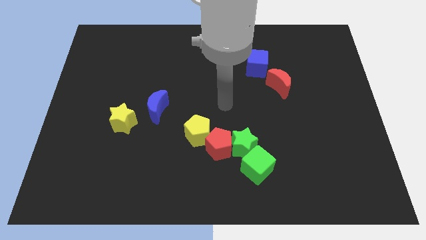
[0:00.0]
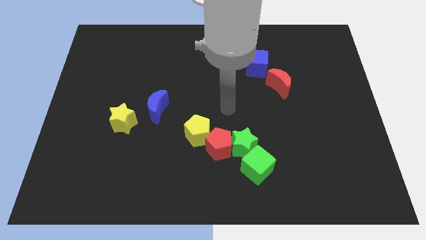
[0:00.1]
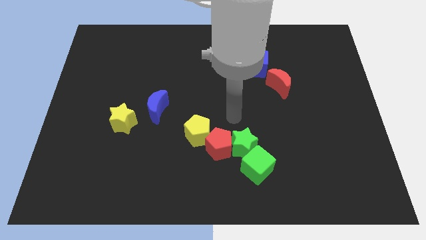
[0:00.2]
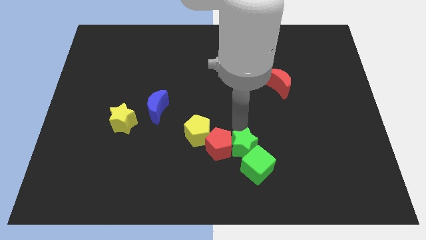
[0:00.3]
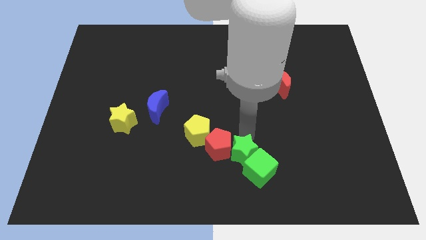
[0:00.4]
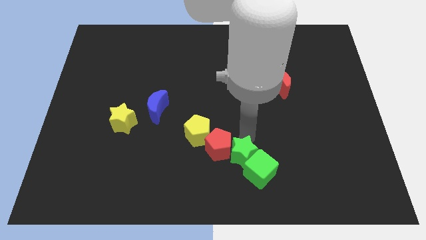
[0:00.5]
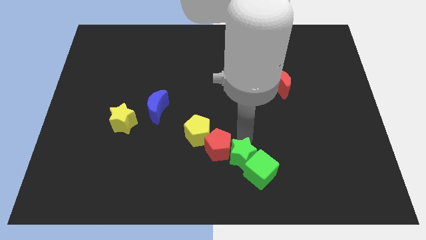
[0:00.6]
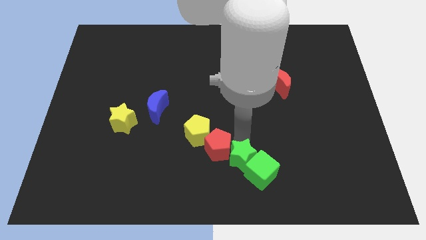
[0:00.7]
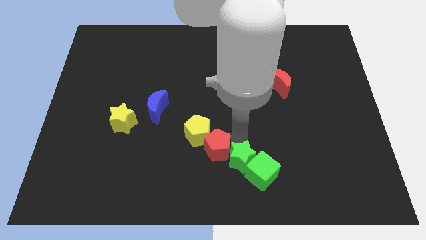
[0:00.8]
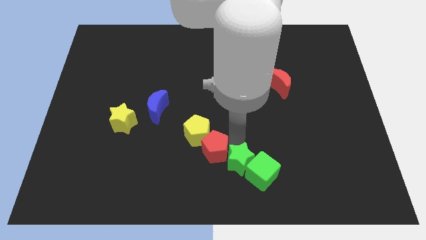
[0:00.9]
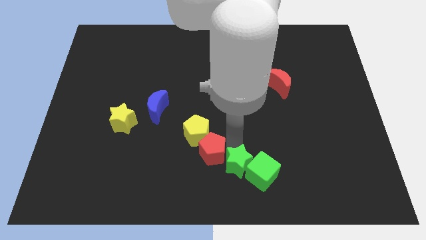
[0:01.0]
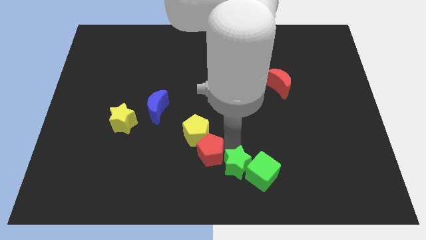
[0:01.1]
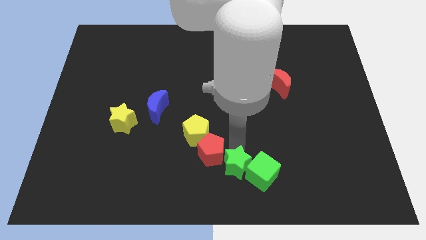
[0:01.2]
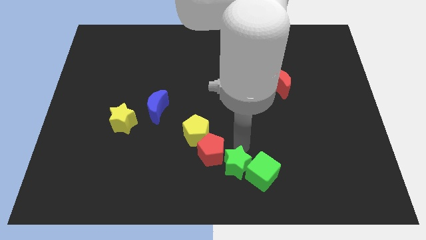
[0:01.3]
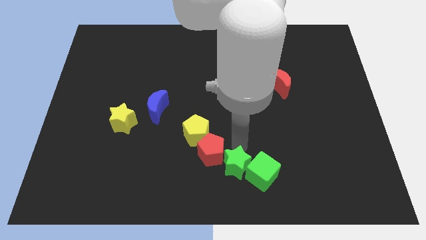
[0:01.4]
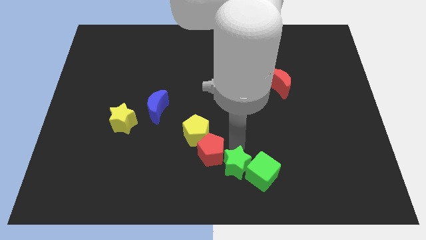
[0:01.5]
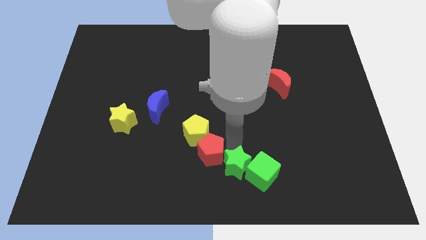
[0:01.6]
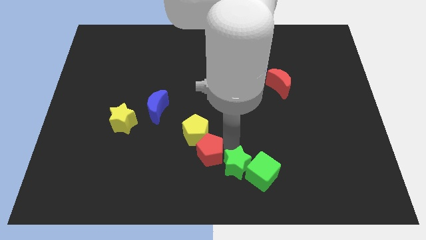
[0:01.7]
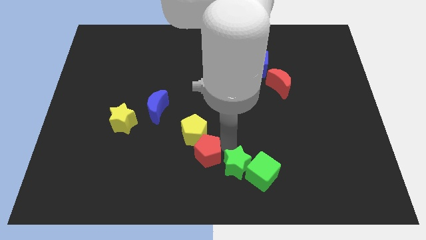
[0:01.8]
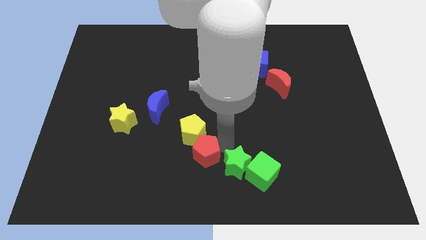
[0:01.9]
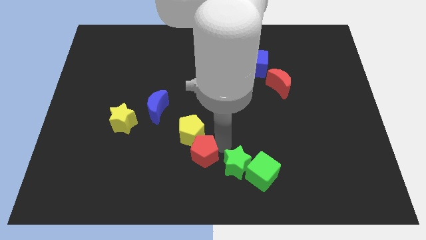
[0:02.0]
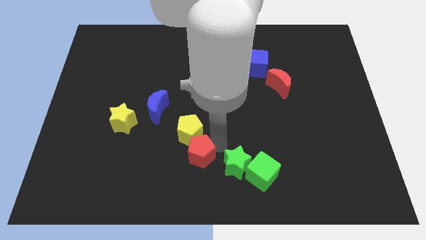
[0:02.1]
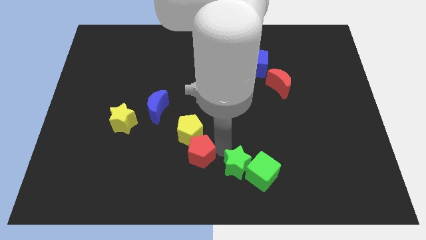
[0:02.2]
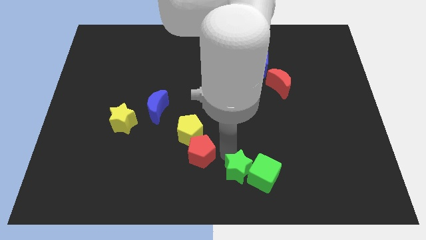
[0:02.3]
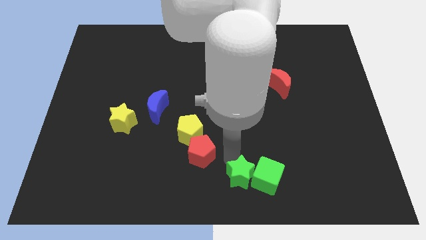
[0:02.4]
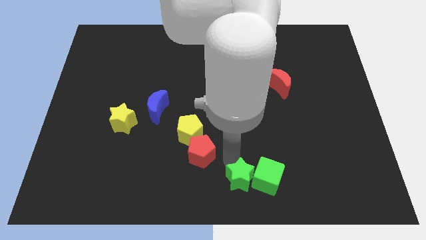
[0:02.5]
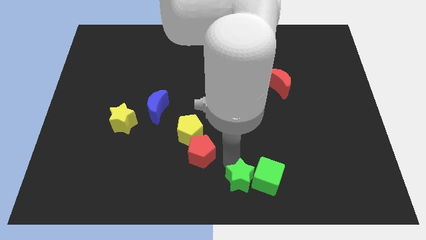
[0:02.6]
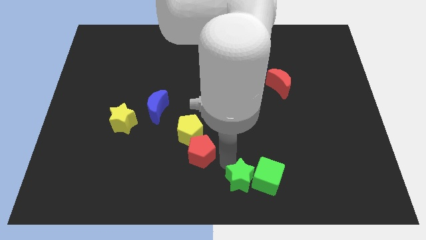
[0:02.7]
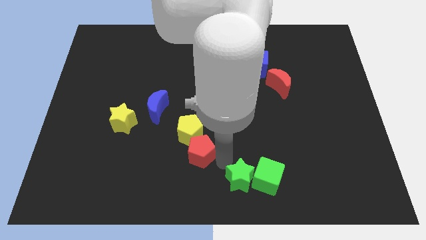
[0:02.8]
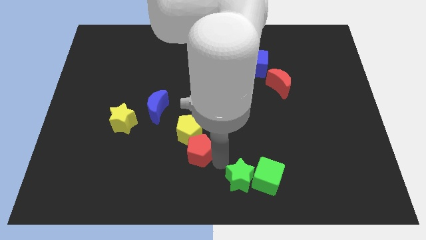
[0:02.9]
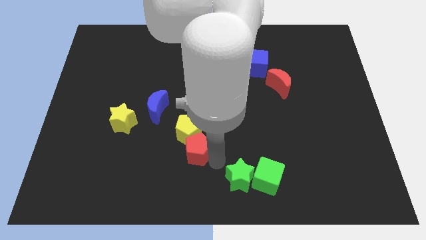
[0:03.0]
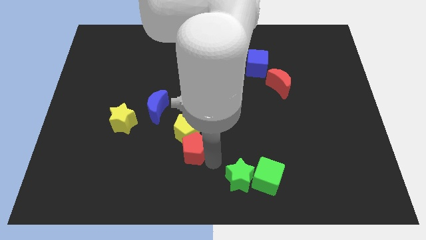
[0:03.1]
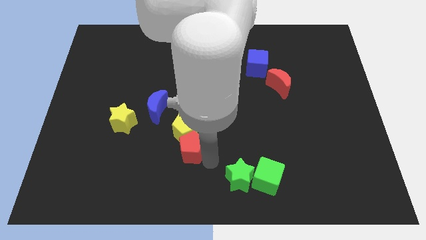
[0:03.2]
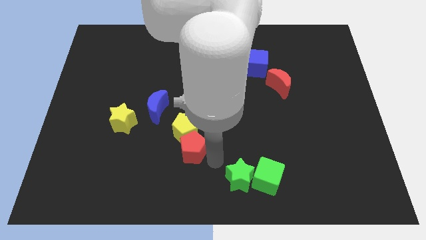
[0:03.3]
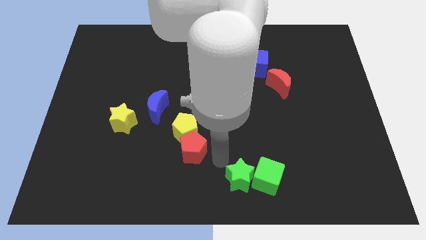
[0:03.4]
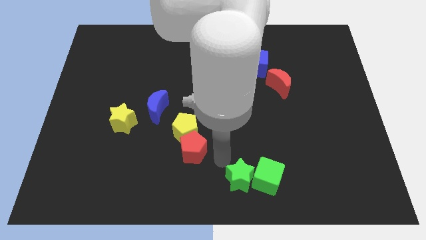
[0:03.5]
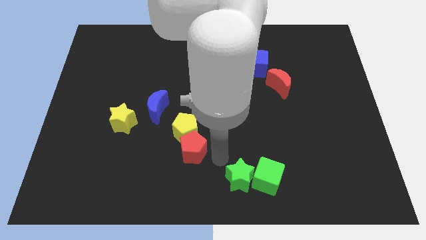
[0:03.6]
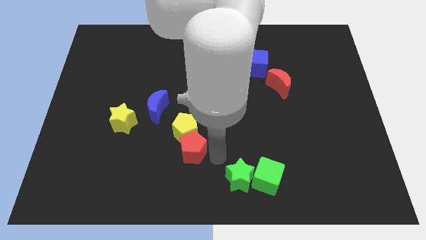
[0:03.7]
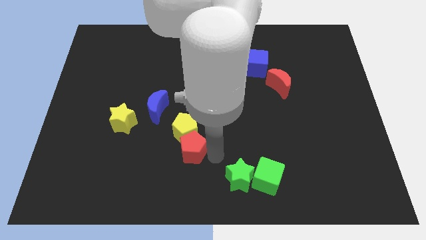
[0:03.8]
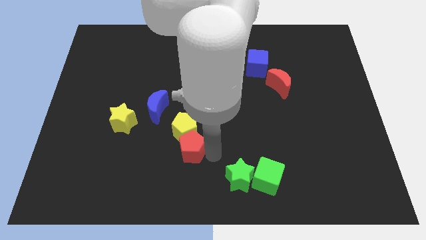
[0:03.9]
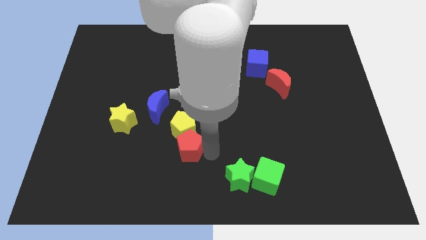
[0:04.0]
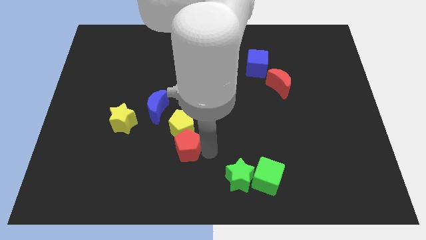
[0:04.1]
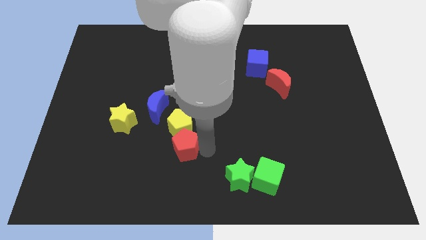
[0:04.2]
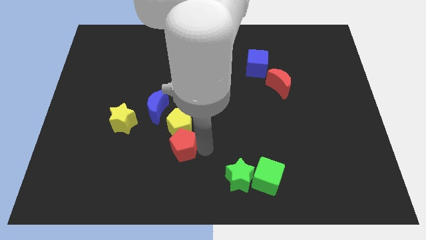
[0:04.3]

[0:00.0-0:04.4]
separate the red pentagon from the group

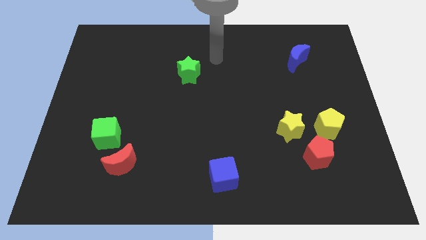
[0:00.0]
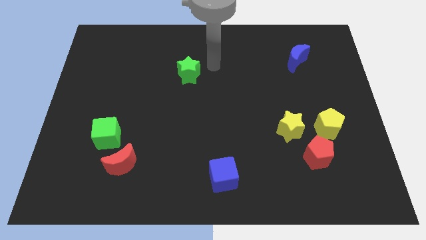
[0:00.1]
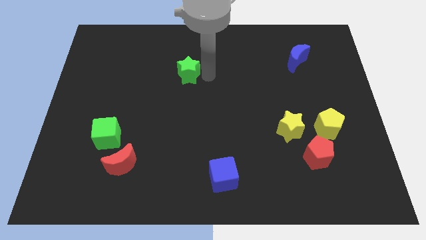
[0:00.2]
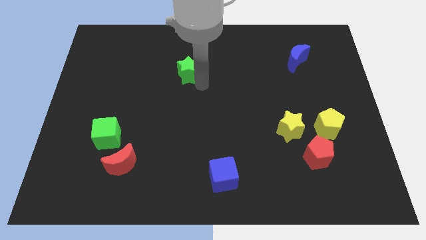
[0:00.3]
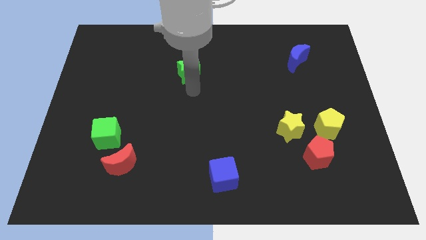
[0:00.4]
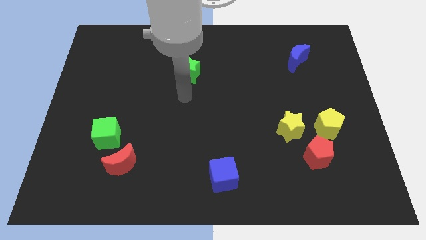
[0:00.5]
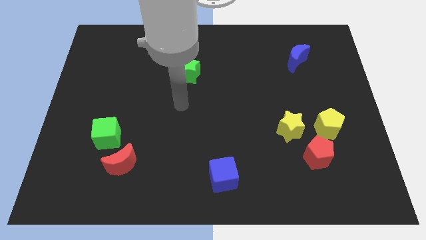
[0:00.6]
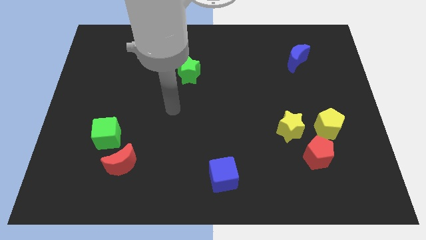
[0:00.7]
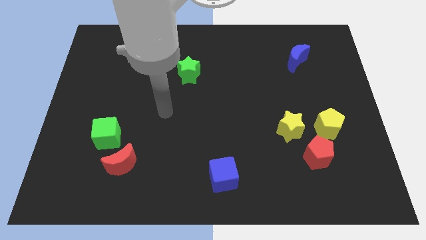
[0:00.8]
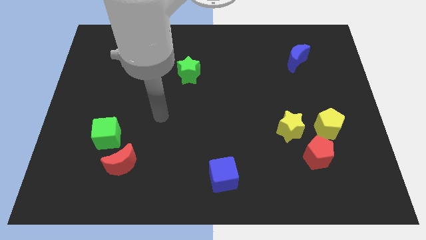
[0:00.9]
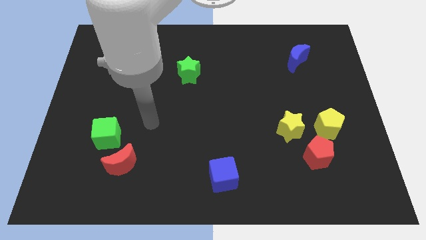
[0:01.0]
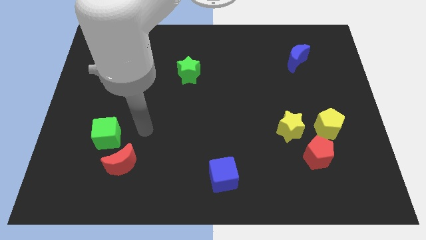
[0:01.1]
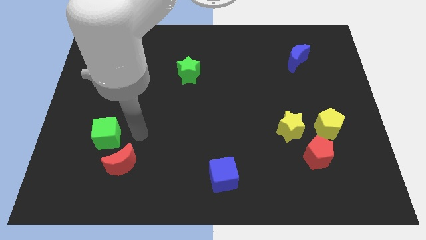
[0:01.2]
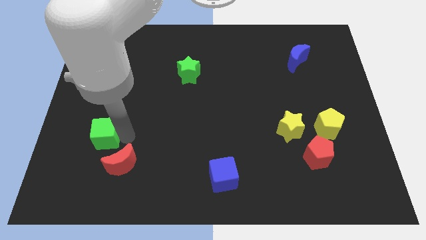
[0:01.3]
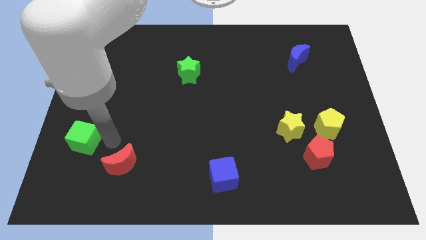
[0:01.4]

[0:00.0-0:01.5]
separate the red moon from the green cube

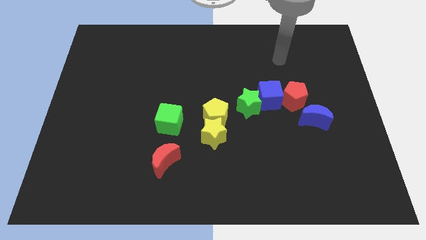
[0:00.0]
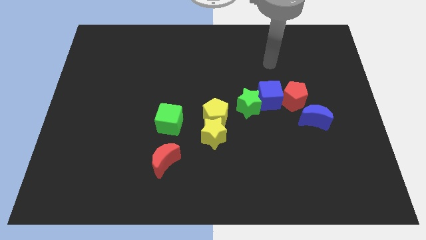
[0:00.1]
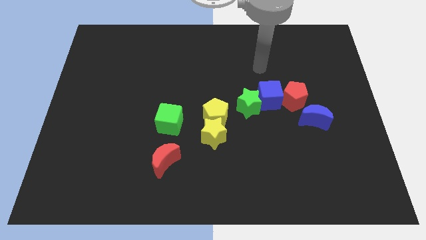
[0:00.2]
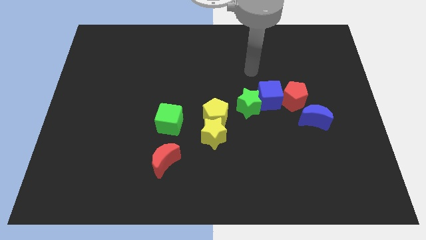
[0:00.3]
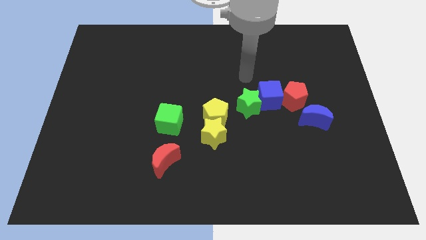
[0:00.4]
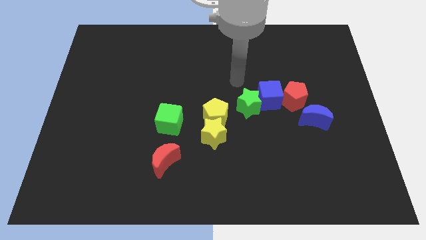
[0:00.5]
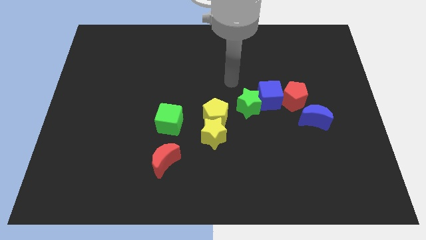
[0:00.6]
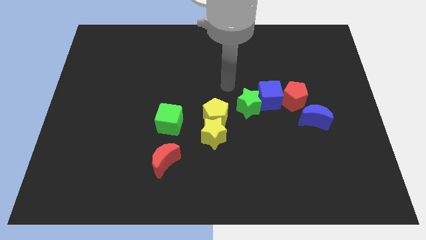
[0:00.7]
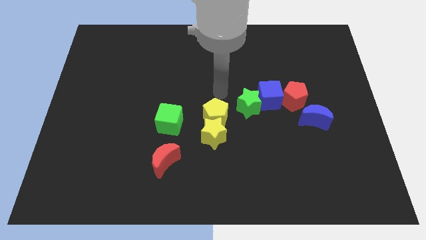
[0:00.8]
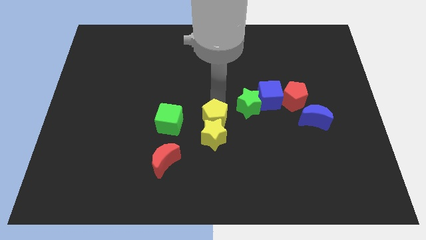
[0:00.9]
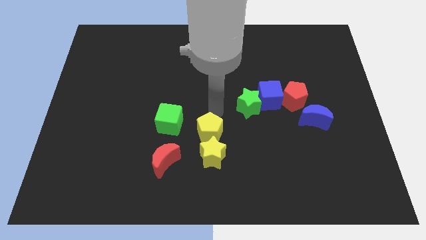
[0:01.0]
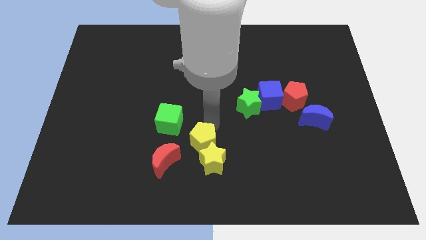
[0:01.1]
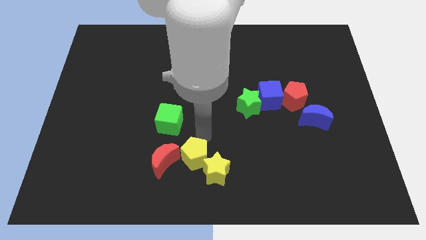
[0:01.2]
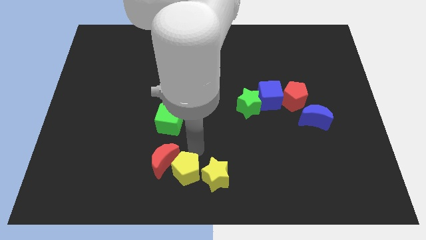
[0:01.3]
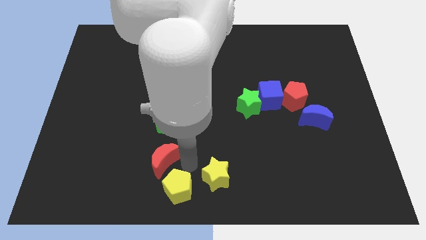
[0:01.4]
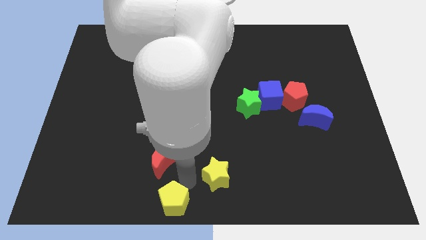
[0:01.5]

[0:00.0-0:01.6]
move the yellow star away from the yellow pentagon

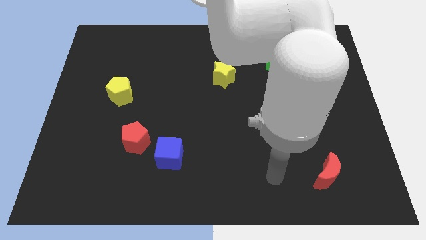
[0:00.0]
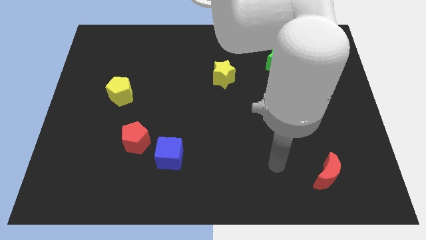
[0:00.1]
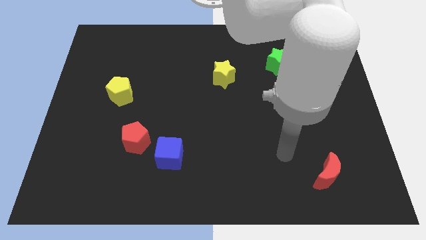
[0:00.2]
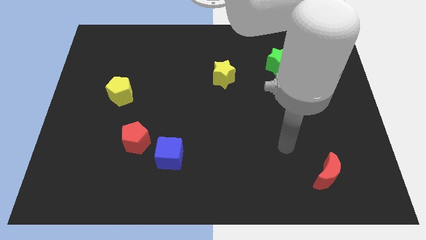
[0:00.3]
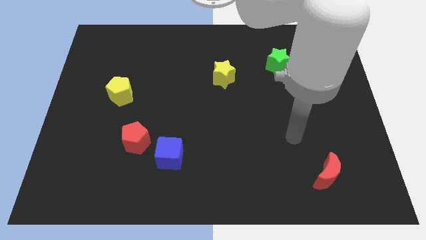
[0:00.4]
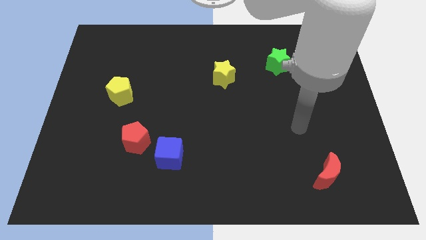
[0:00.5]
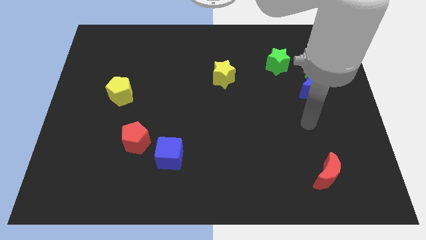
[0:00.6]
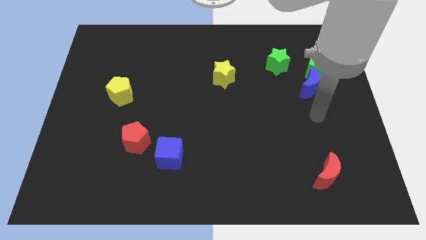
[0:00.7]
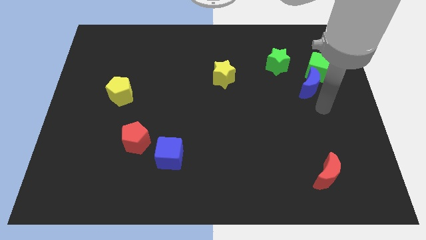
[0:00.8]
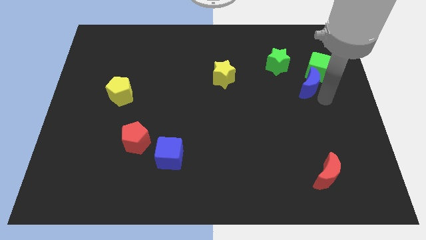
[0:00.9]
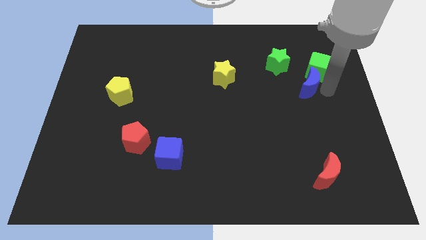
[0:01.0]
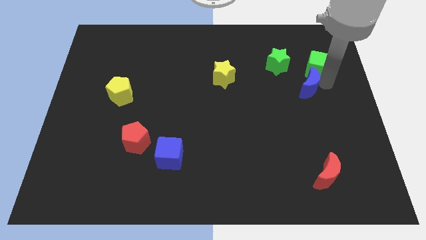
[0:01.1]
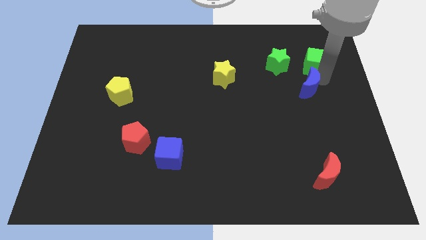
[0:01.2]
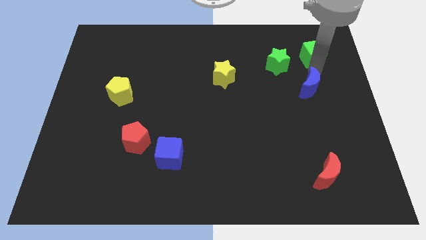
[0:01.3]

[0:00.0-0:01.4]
pull the blue moon apart from the green cube

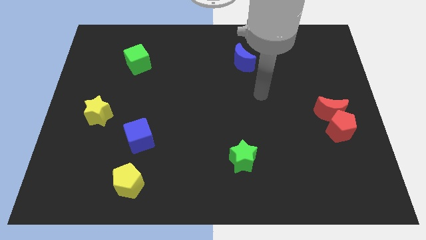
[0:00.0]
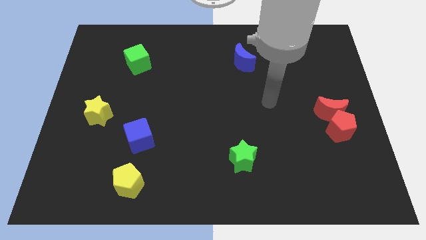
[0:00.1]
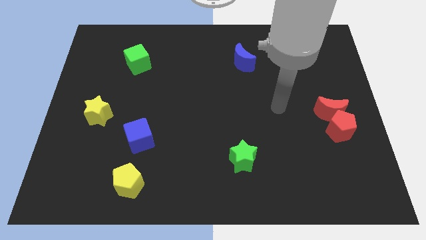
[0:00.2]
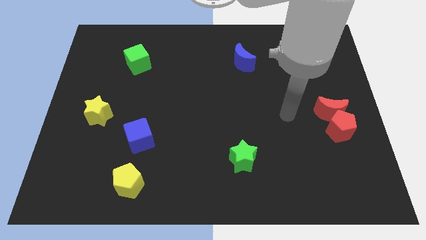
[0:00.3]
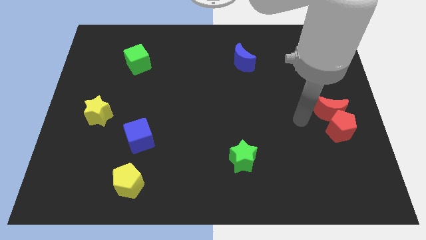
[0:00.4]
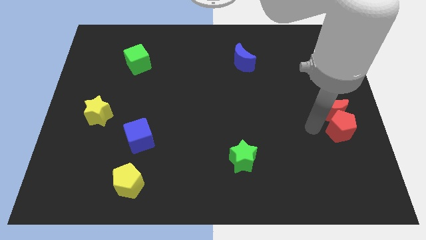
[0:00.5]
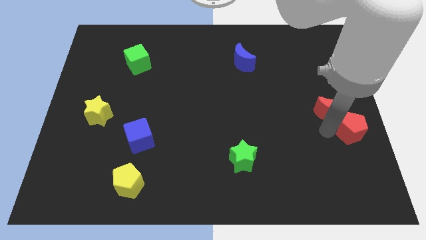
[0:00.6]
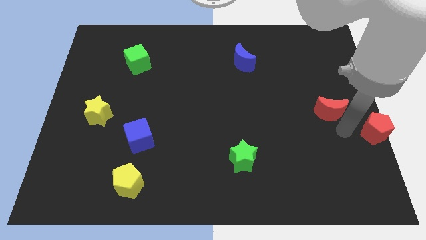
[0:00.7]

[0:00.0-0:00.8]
pull the red moon apart from the red pentagon
